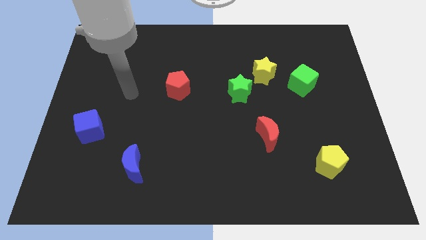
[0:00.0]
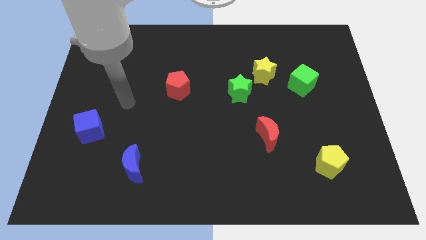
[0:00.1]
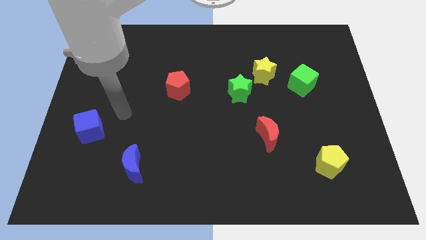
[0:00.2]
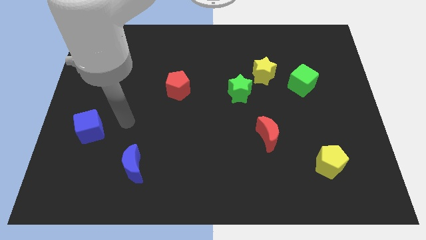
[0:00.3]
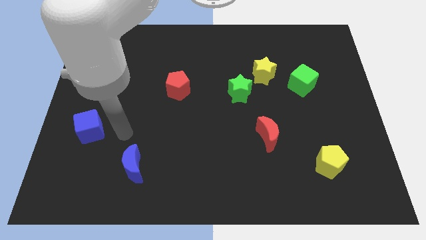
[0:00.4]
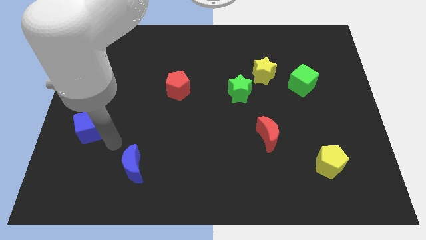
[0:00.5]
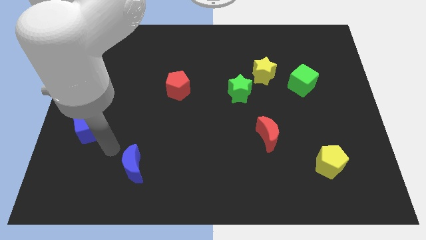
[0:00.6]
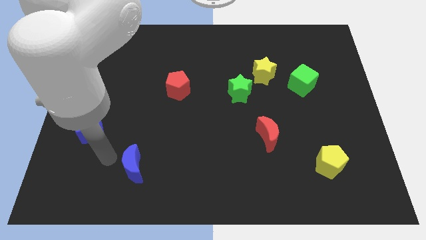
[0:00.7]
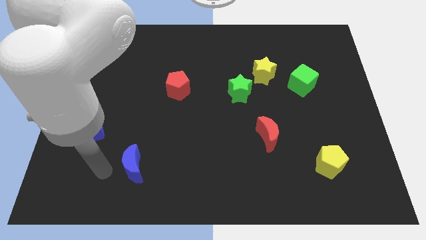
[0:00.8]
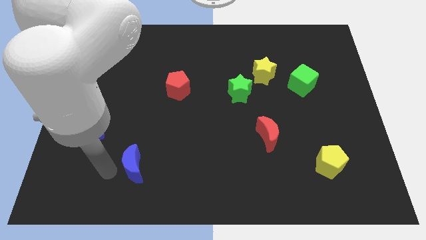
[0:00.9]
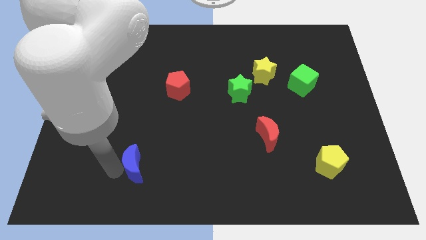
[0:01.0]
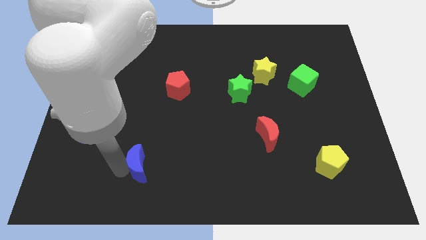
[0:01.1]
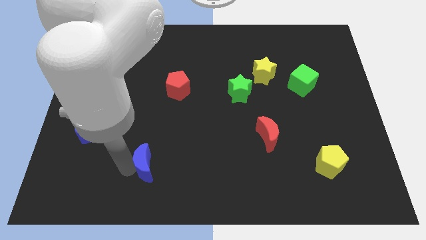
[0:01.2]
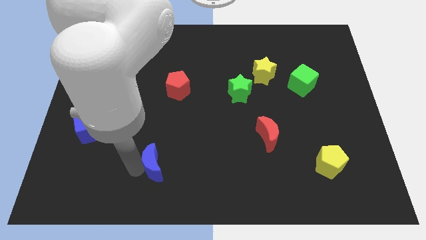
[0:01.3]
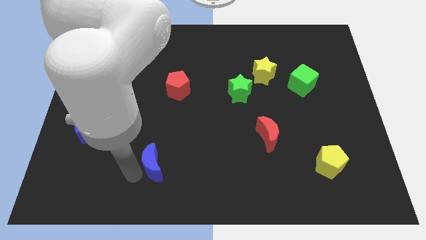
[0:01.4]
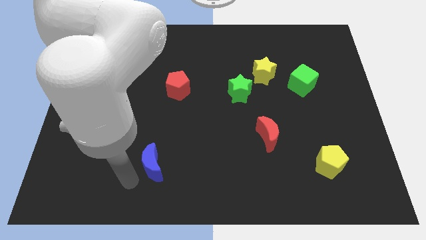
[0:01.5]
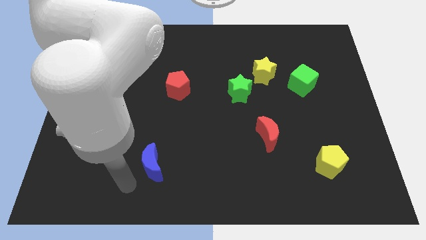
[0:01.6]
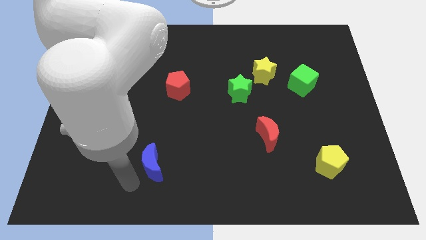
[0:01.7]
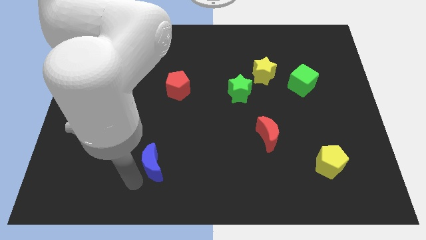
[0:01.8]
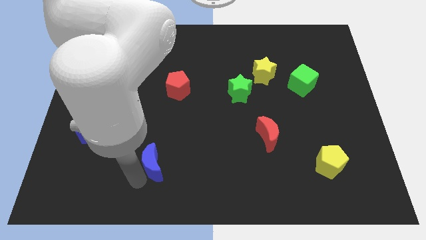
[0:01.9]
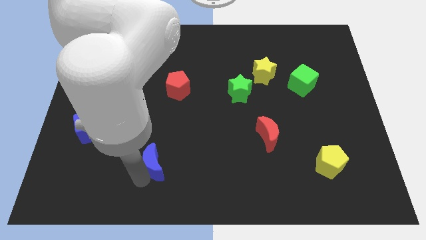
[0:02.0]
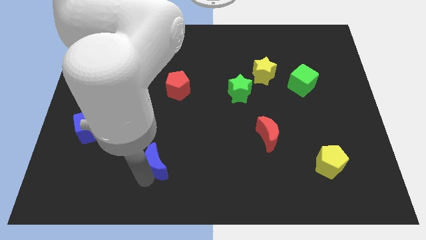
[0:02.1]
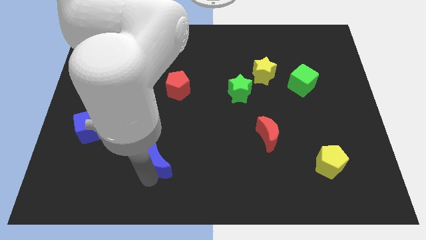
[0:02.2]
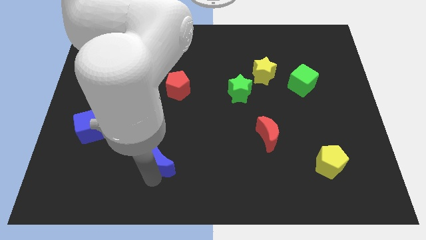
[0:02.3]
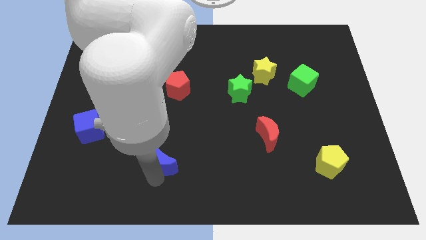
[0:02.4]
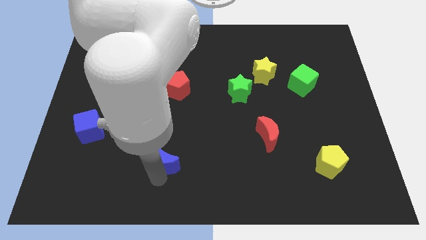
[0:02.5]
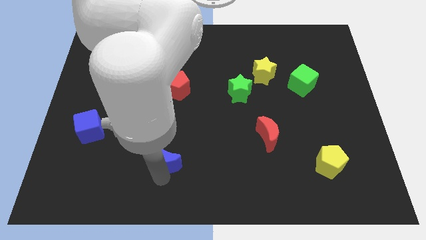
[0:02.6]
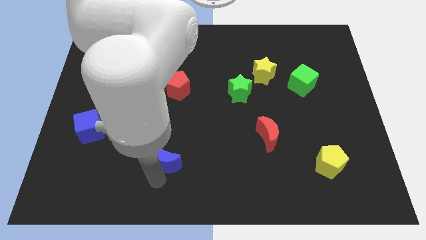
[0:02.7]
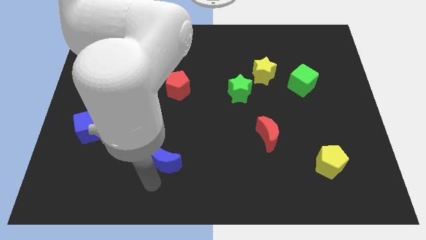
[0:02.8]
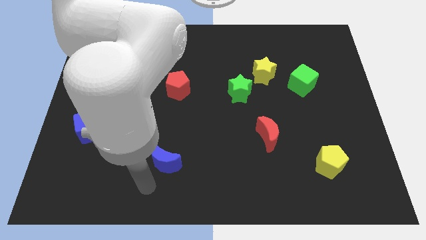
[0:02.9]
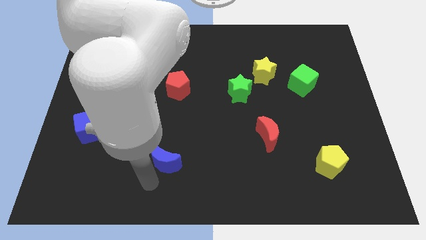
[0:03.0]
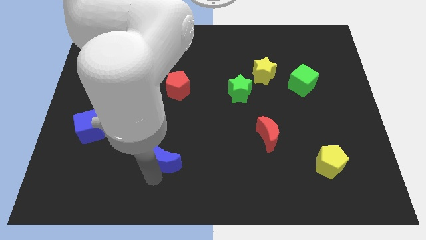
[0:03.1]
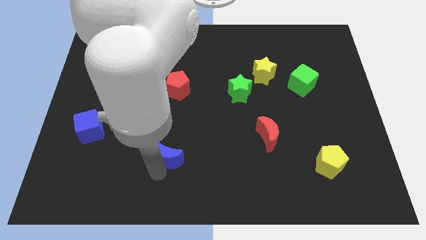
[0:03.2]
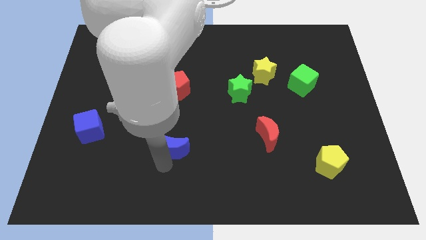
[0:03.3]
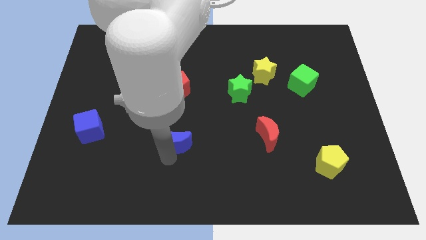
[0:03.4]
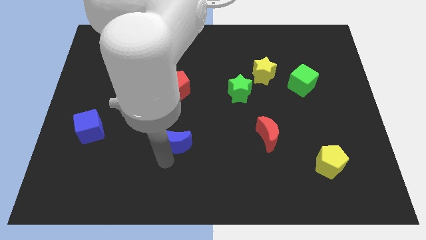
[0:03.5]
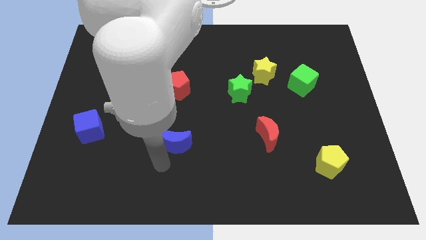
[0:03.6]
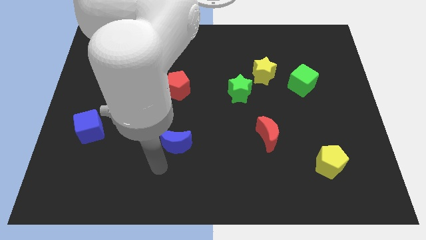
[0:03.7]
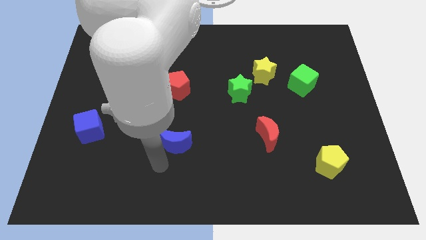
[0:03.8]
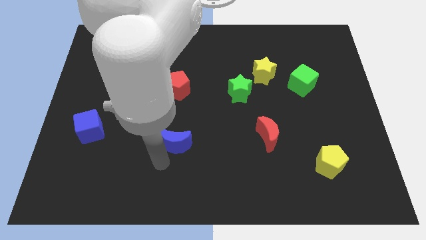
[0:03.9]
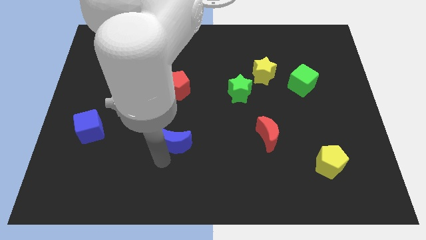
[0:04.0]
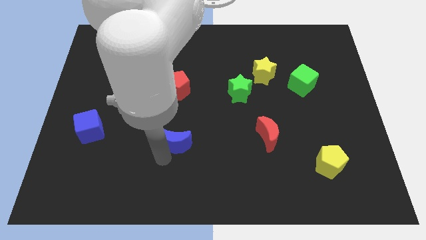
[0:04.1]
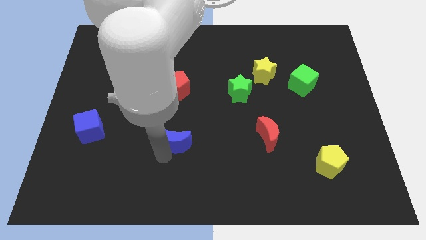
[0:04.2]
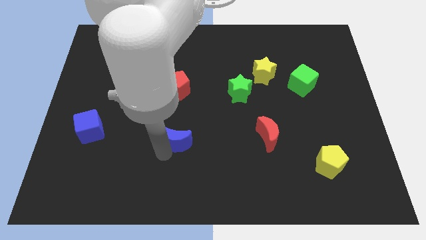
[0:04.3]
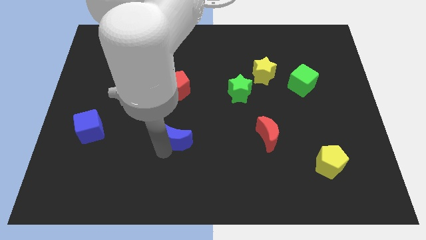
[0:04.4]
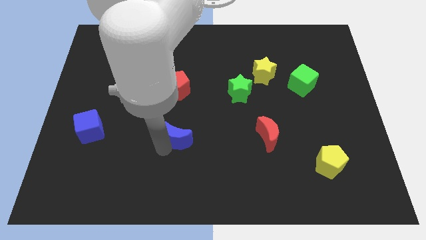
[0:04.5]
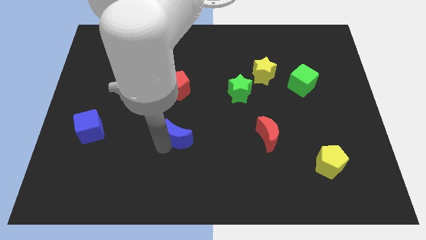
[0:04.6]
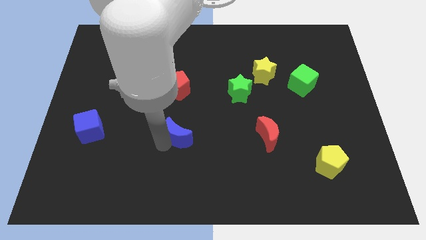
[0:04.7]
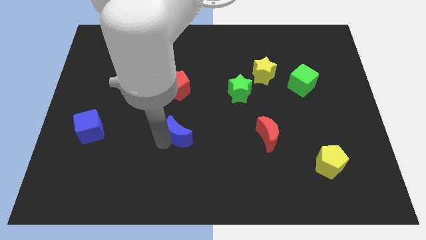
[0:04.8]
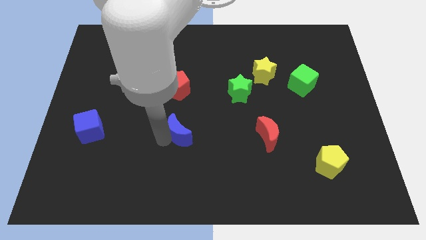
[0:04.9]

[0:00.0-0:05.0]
slide the blue moon to the center

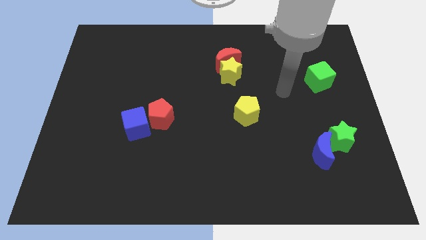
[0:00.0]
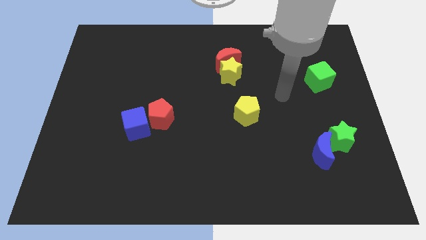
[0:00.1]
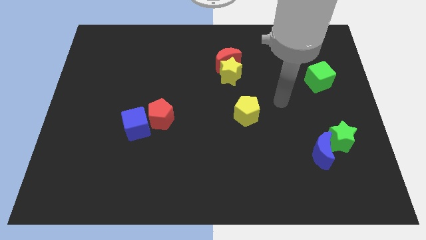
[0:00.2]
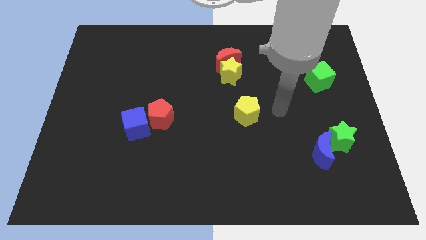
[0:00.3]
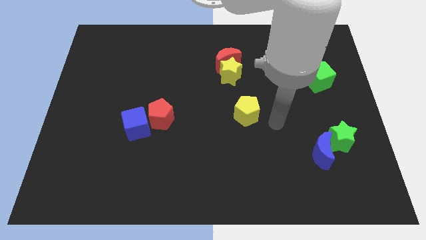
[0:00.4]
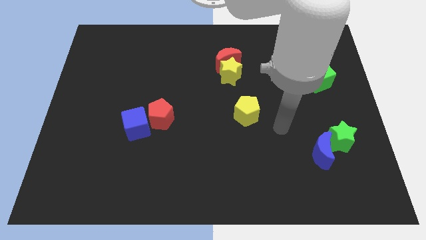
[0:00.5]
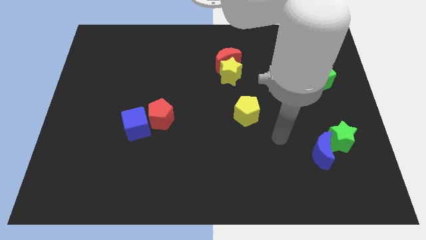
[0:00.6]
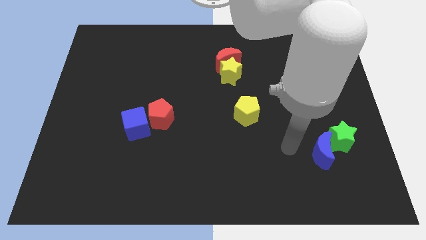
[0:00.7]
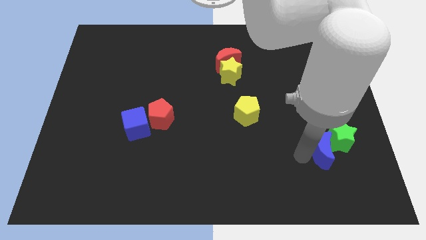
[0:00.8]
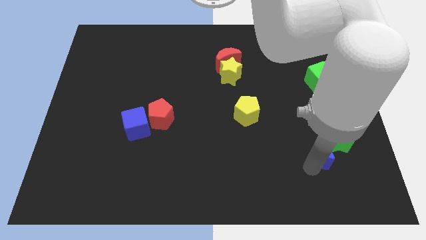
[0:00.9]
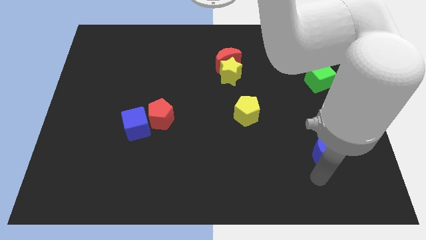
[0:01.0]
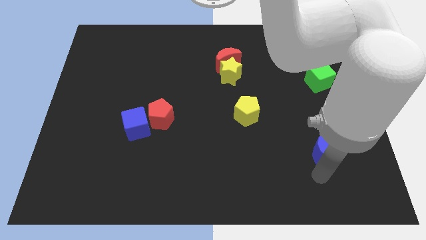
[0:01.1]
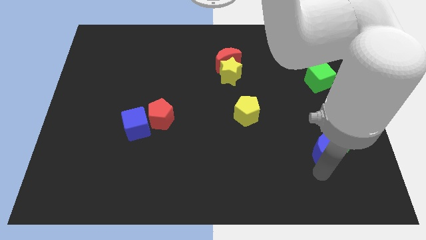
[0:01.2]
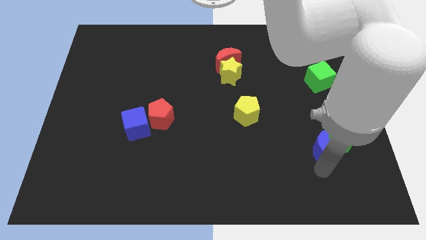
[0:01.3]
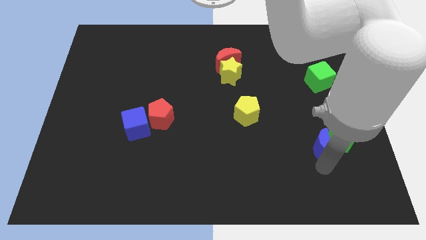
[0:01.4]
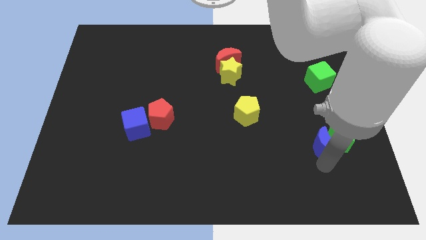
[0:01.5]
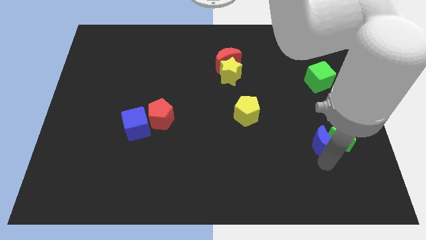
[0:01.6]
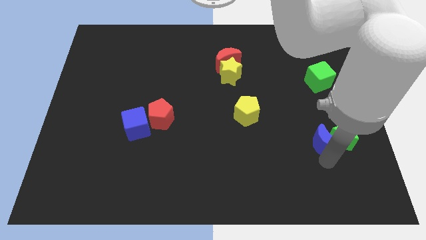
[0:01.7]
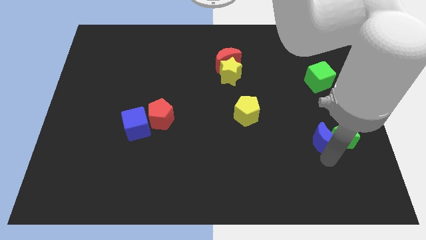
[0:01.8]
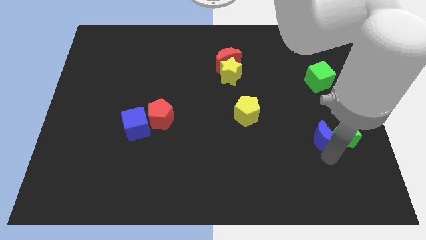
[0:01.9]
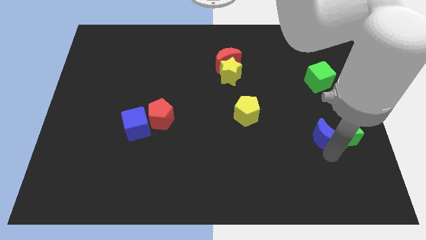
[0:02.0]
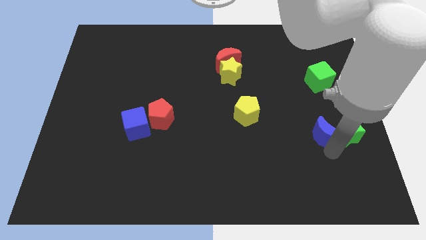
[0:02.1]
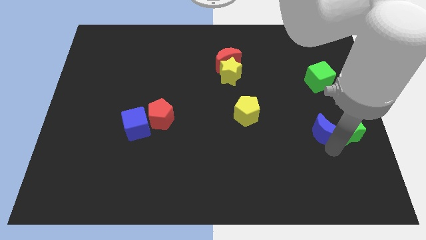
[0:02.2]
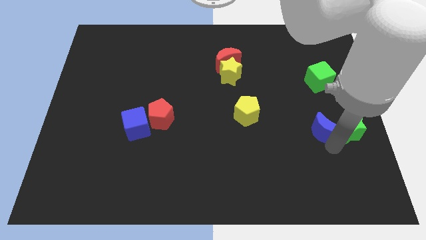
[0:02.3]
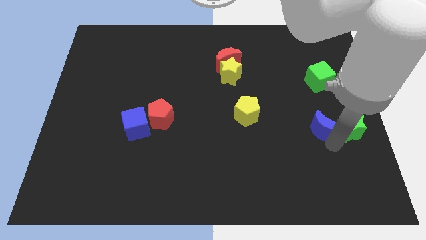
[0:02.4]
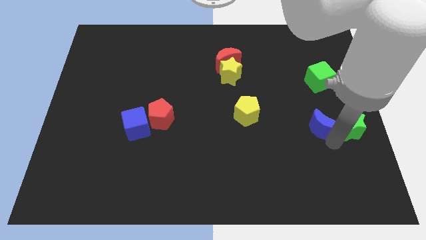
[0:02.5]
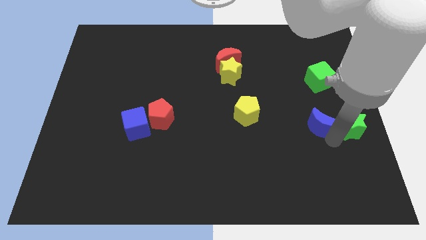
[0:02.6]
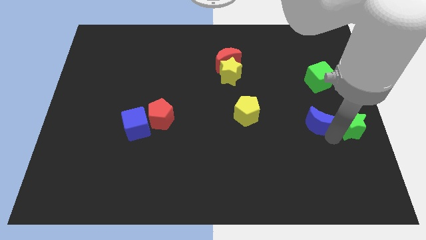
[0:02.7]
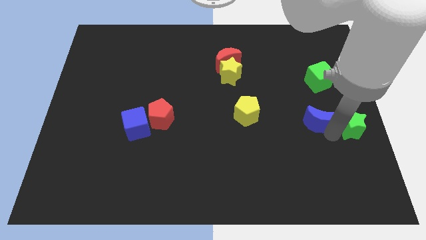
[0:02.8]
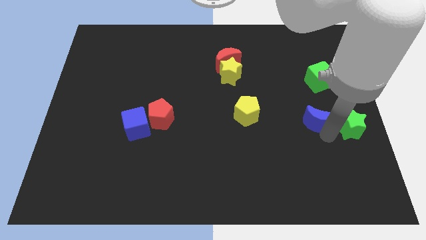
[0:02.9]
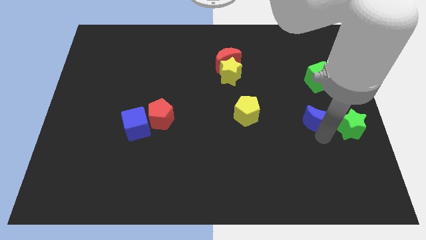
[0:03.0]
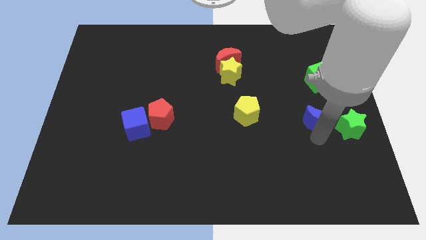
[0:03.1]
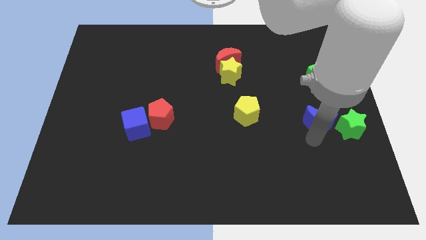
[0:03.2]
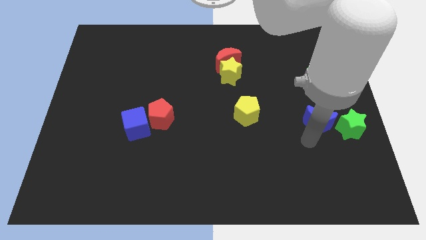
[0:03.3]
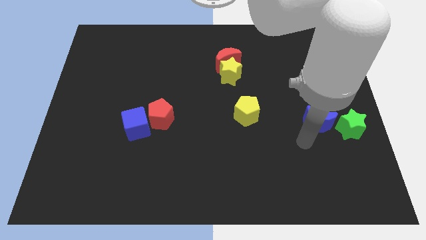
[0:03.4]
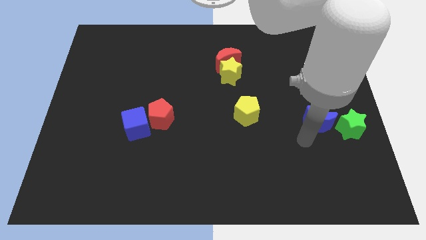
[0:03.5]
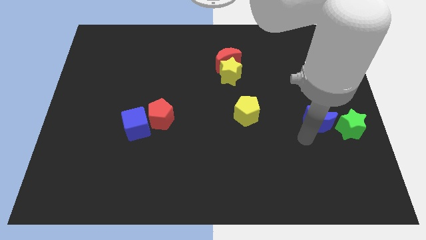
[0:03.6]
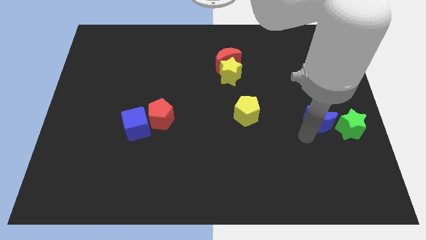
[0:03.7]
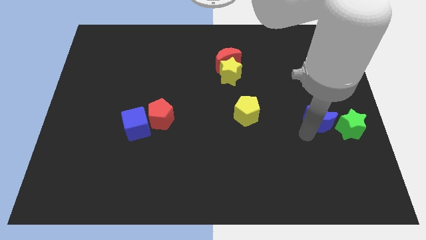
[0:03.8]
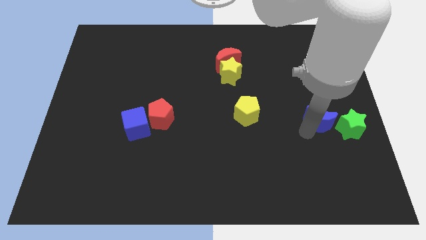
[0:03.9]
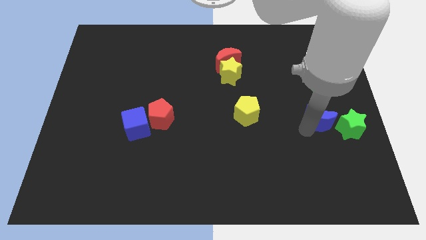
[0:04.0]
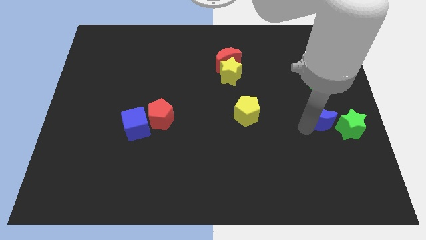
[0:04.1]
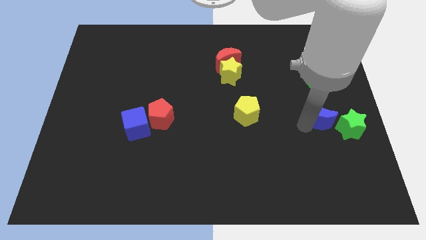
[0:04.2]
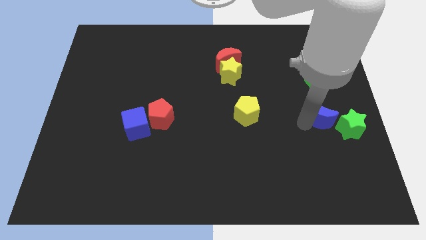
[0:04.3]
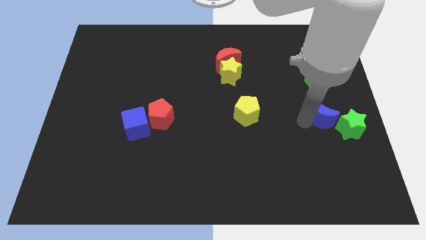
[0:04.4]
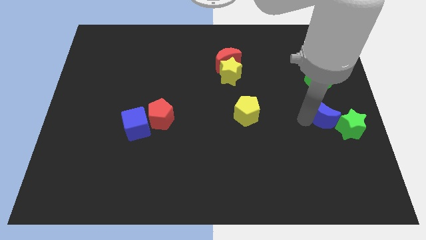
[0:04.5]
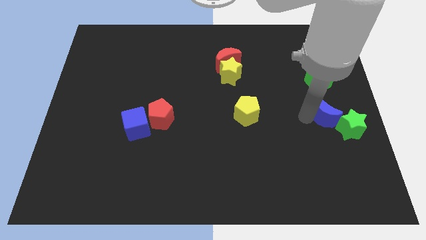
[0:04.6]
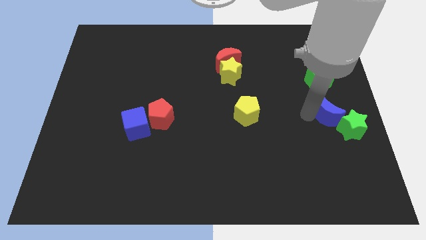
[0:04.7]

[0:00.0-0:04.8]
push the blue moon to the center right
